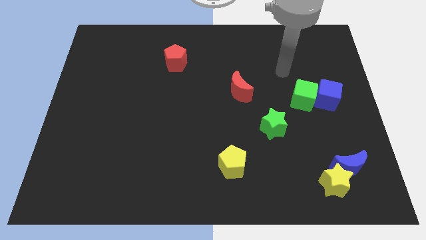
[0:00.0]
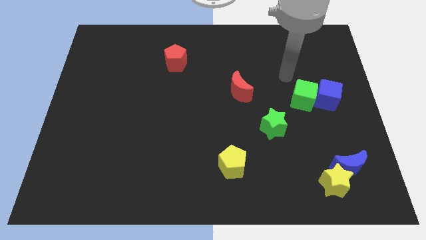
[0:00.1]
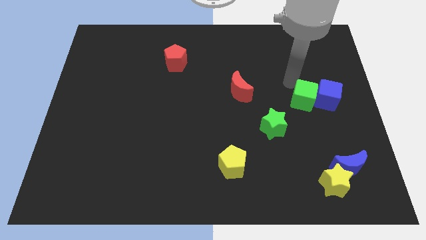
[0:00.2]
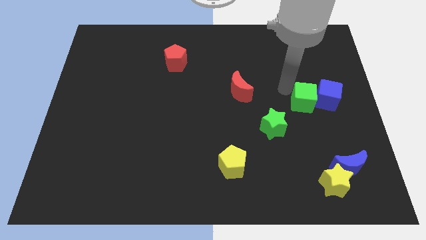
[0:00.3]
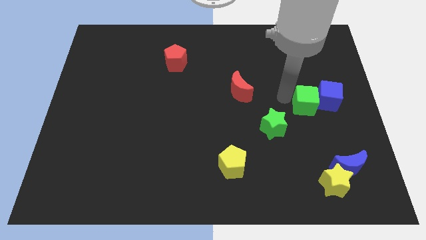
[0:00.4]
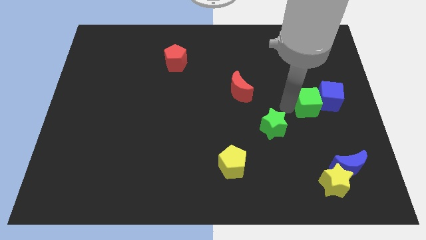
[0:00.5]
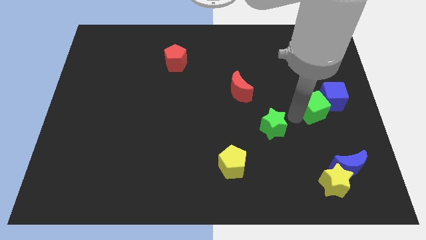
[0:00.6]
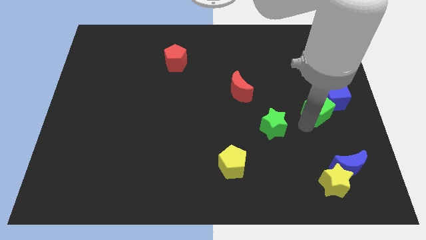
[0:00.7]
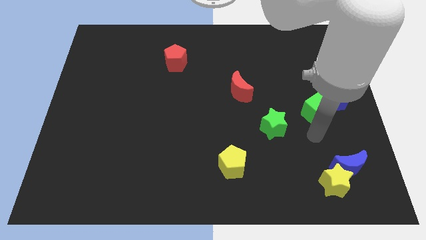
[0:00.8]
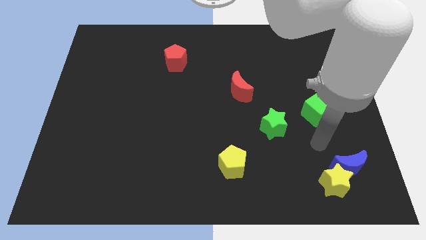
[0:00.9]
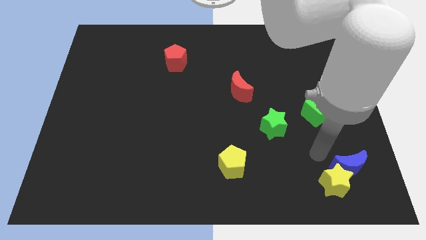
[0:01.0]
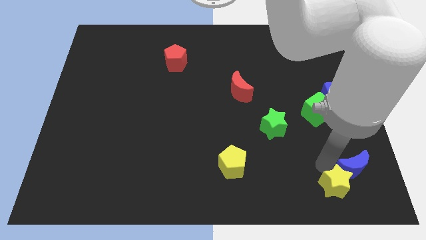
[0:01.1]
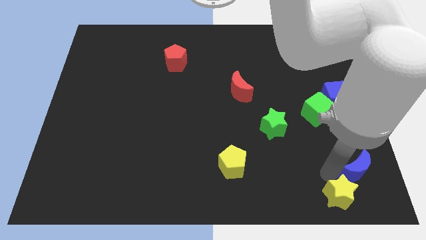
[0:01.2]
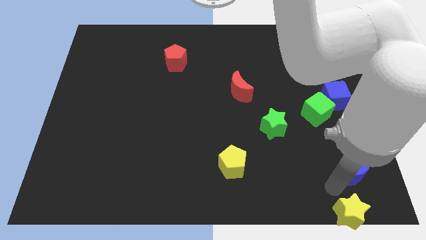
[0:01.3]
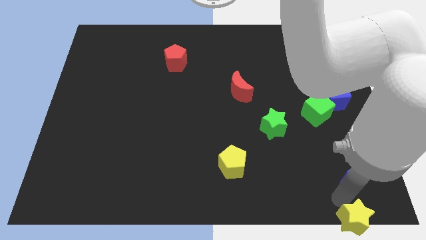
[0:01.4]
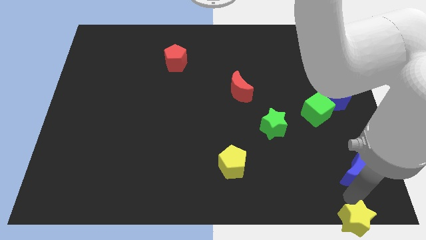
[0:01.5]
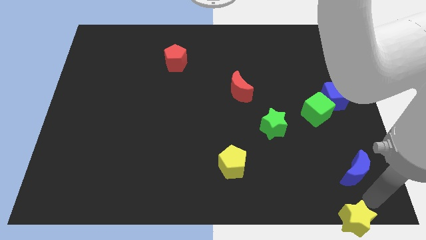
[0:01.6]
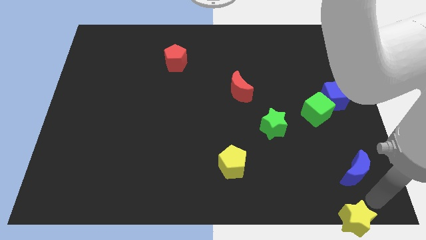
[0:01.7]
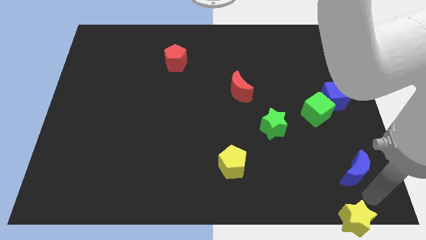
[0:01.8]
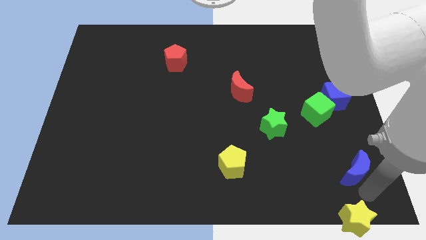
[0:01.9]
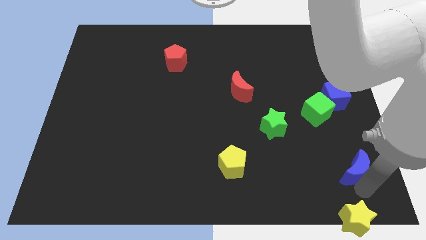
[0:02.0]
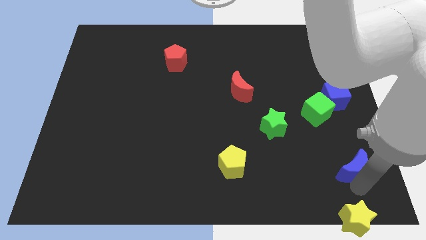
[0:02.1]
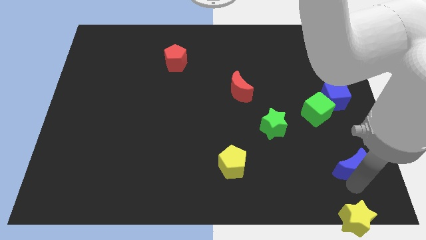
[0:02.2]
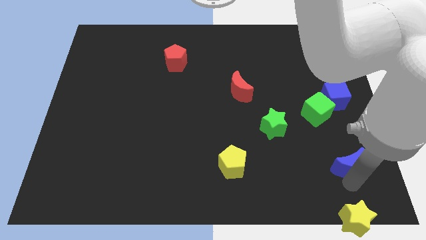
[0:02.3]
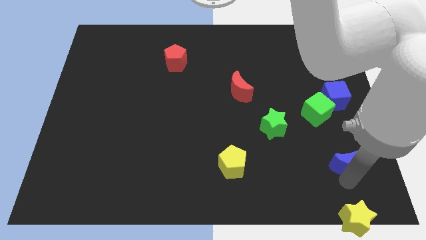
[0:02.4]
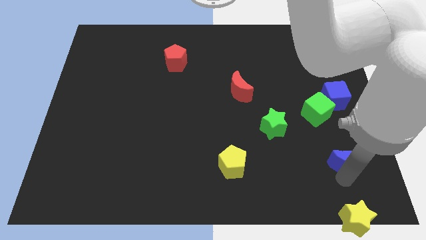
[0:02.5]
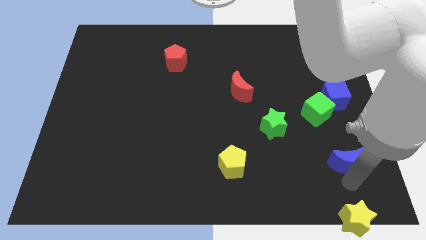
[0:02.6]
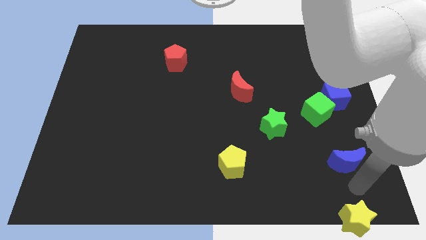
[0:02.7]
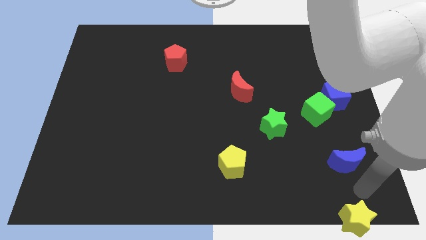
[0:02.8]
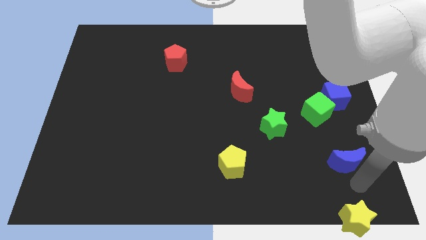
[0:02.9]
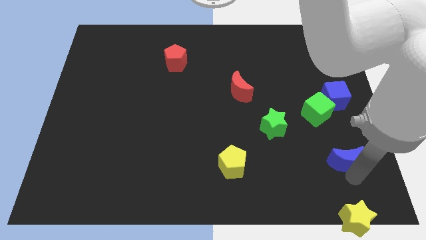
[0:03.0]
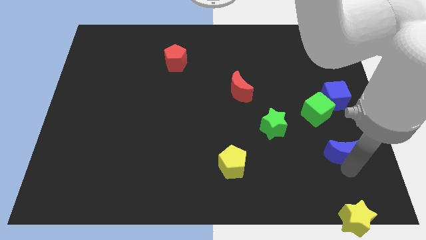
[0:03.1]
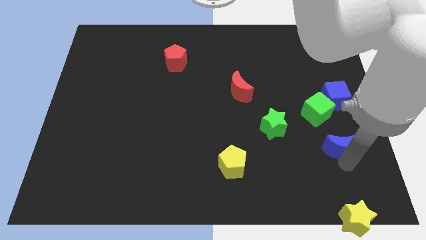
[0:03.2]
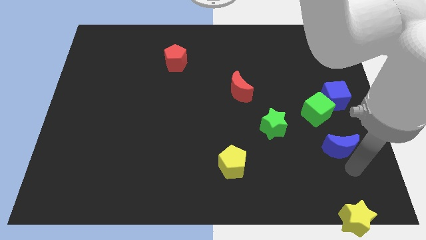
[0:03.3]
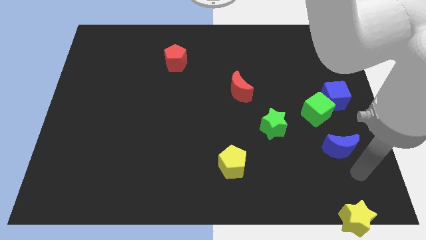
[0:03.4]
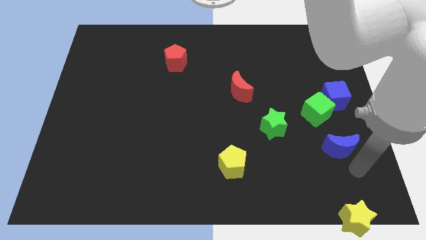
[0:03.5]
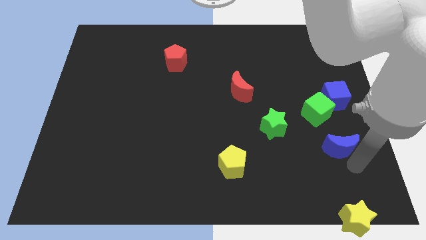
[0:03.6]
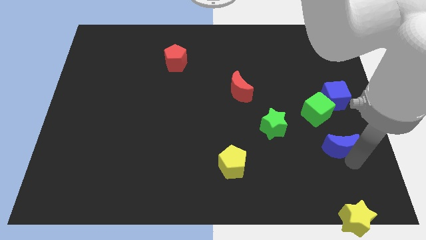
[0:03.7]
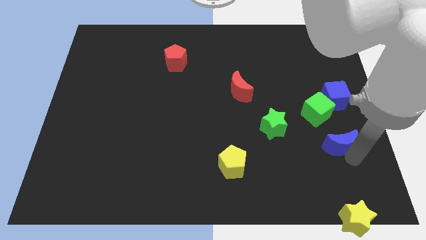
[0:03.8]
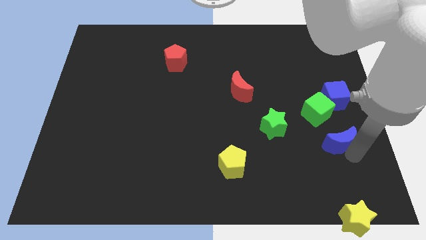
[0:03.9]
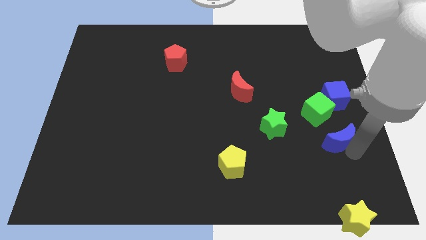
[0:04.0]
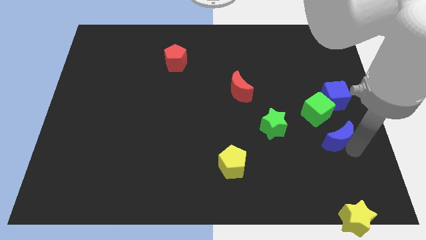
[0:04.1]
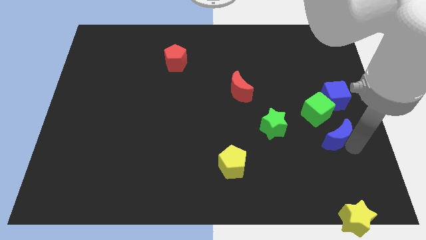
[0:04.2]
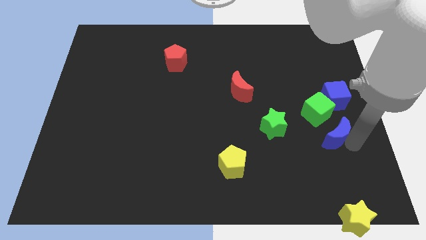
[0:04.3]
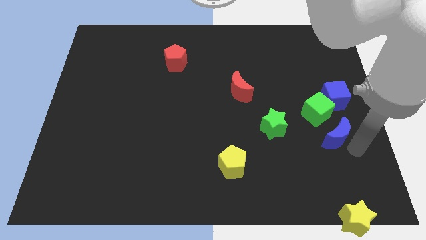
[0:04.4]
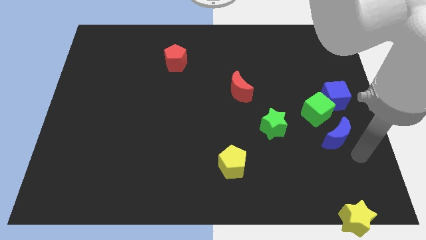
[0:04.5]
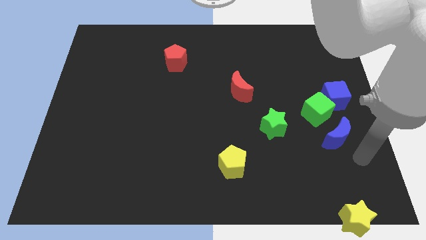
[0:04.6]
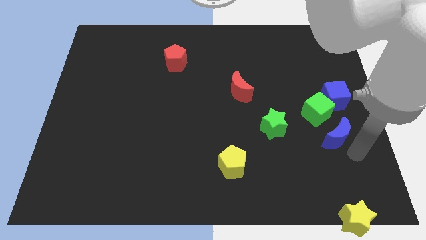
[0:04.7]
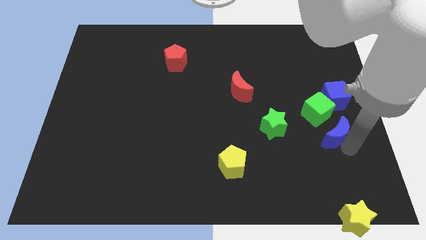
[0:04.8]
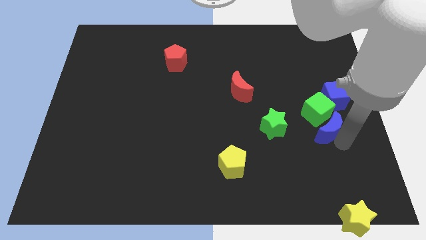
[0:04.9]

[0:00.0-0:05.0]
move the blue moon to the green cube

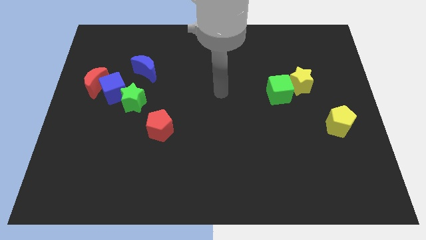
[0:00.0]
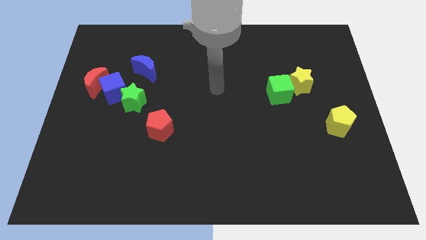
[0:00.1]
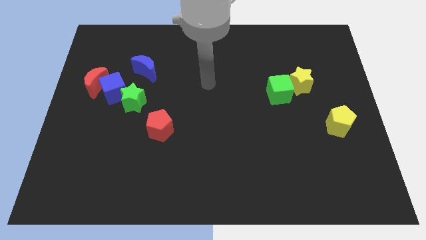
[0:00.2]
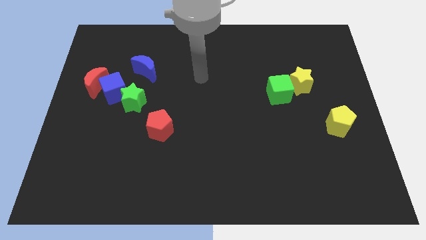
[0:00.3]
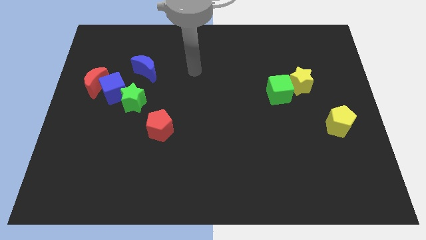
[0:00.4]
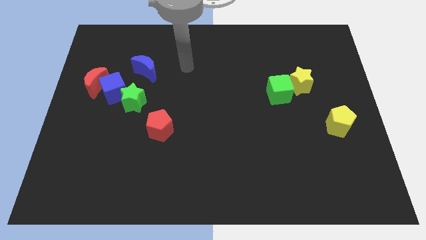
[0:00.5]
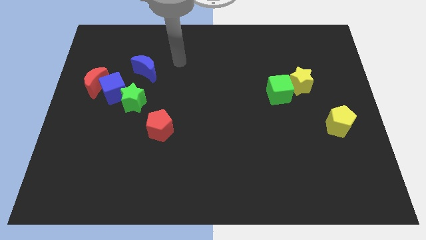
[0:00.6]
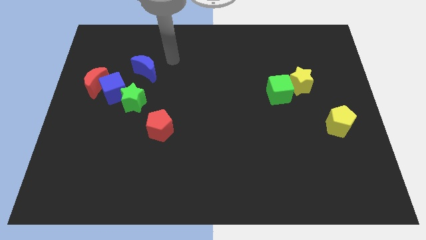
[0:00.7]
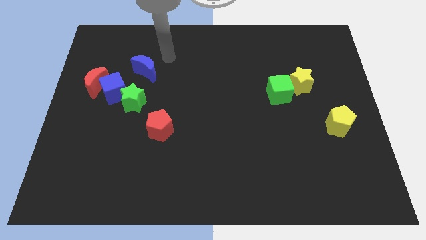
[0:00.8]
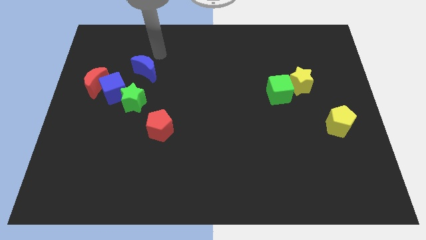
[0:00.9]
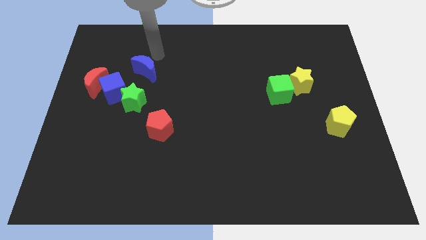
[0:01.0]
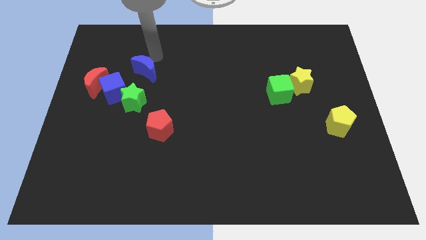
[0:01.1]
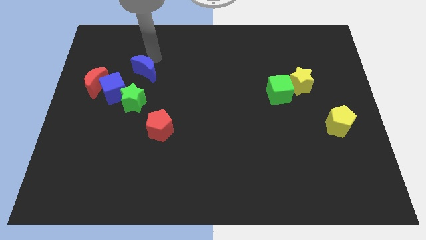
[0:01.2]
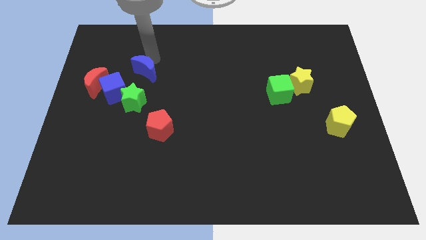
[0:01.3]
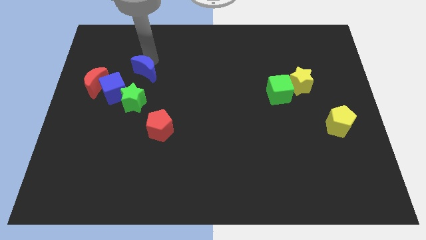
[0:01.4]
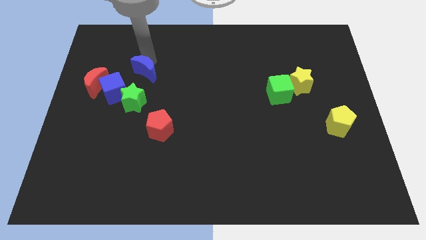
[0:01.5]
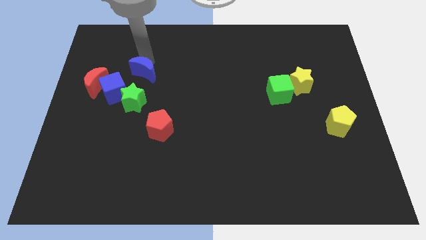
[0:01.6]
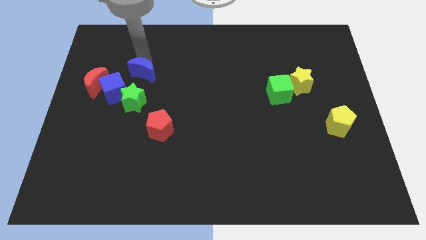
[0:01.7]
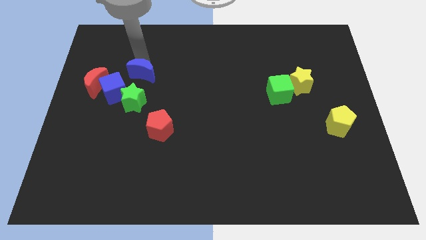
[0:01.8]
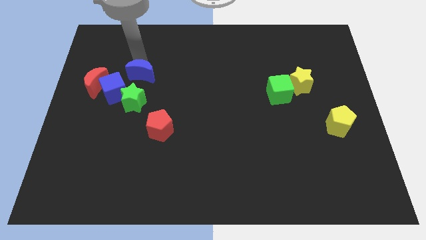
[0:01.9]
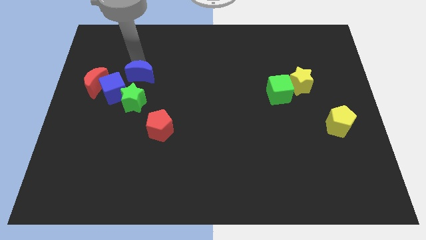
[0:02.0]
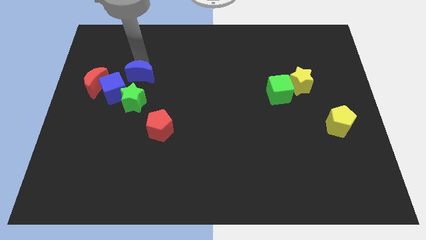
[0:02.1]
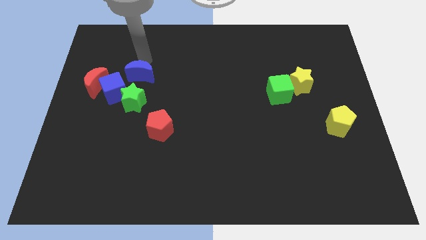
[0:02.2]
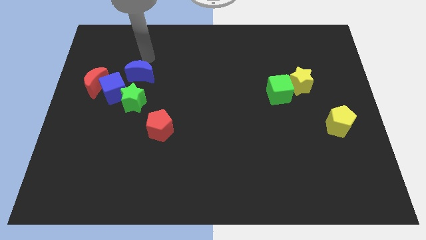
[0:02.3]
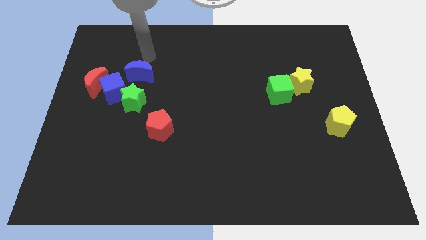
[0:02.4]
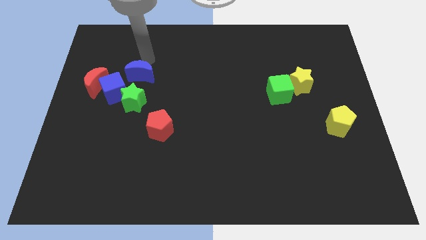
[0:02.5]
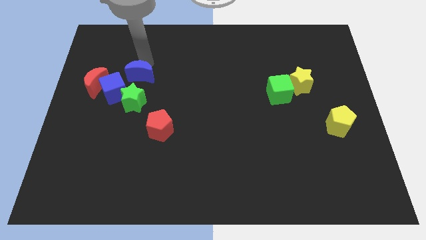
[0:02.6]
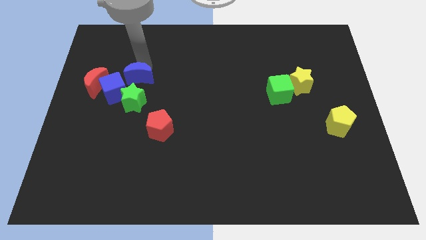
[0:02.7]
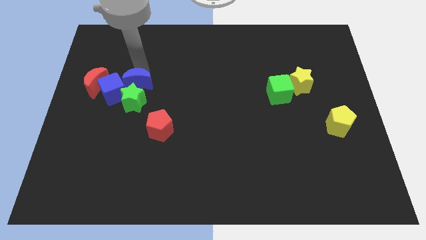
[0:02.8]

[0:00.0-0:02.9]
push the blue moon next to the green star
